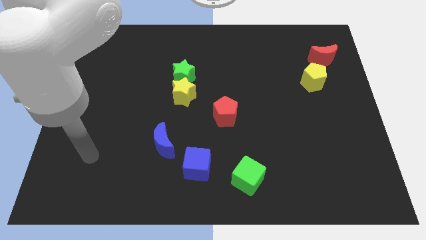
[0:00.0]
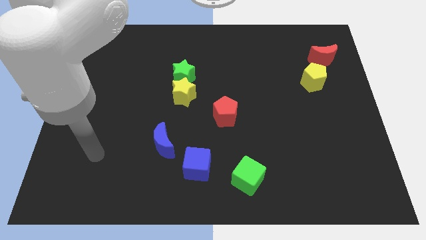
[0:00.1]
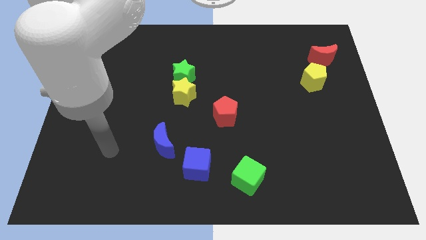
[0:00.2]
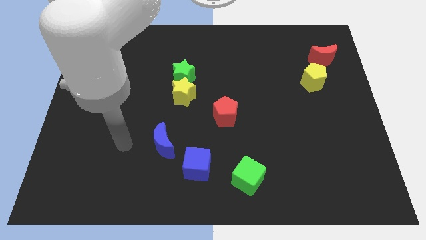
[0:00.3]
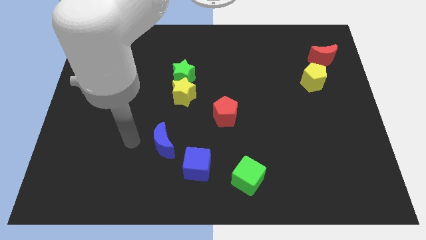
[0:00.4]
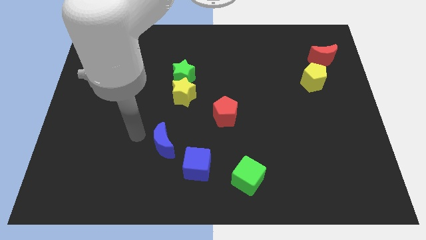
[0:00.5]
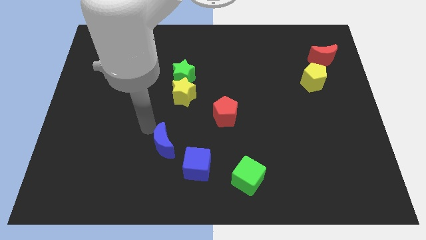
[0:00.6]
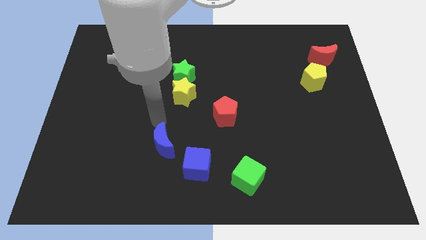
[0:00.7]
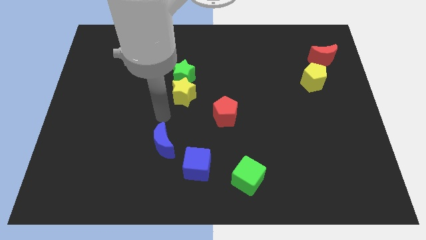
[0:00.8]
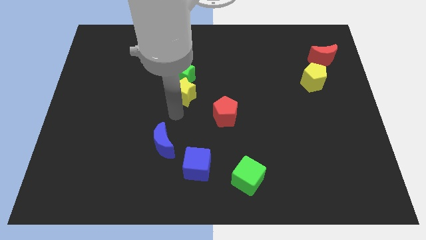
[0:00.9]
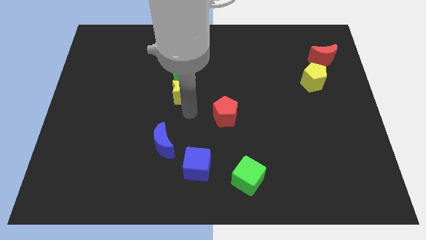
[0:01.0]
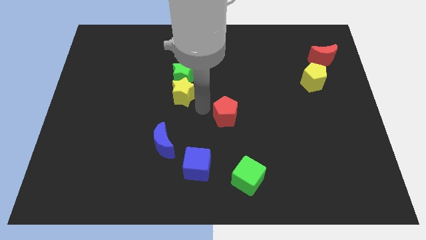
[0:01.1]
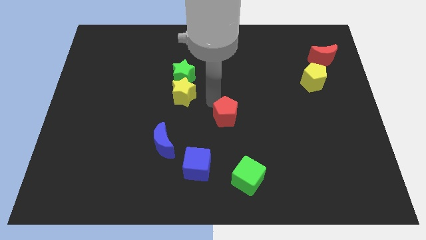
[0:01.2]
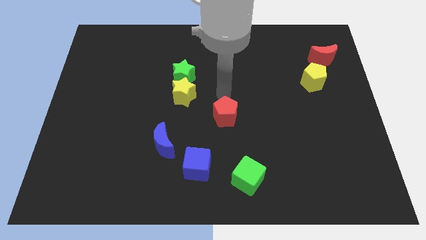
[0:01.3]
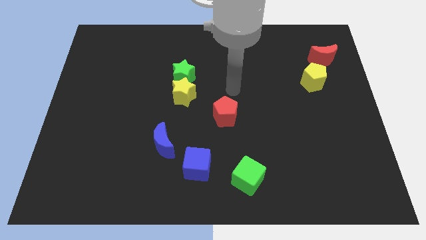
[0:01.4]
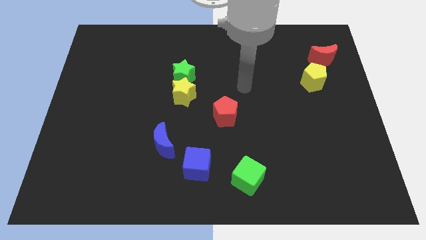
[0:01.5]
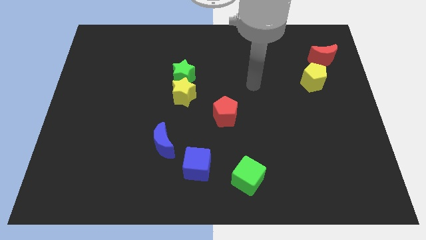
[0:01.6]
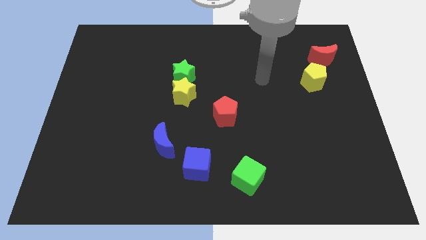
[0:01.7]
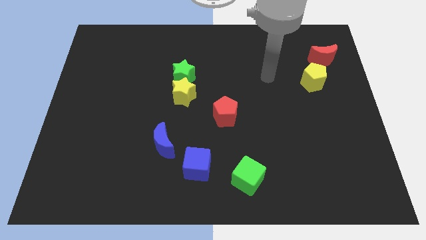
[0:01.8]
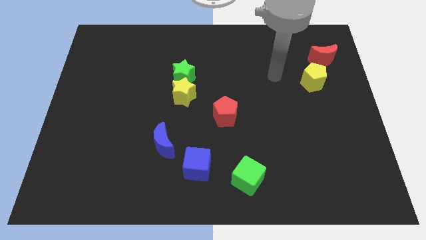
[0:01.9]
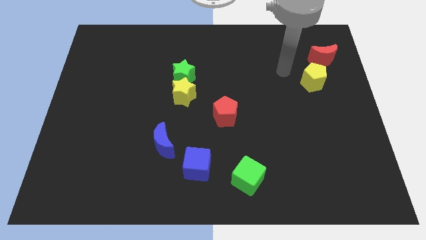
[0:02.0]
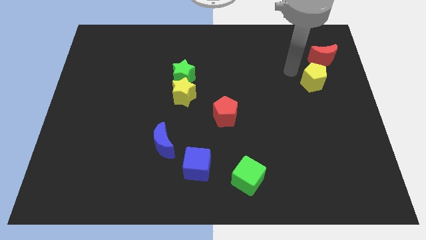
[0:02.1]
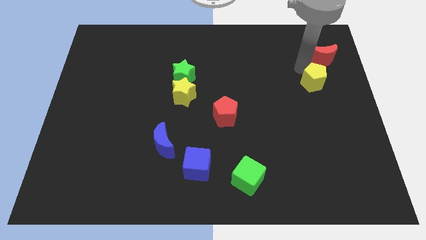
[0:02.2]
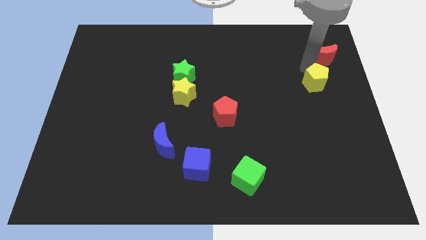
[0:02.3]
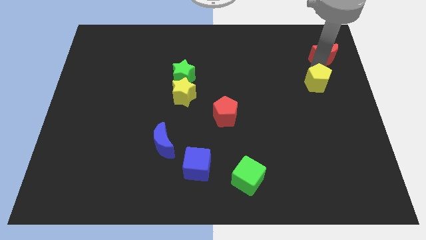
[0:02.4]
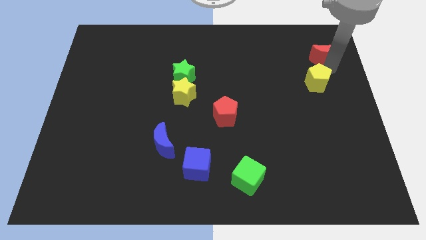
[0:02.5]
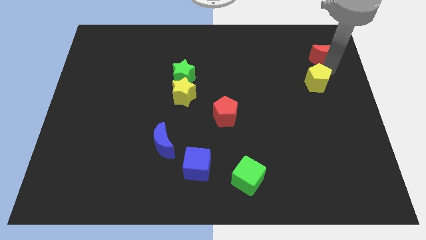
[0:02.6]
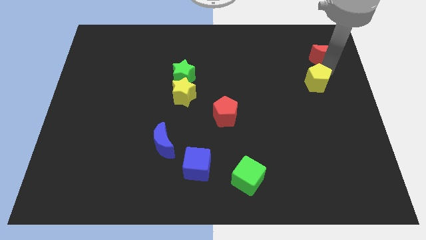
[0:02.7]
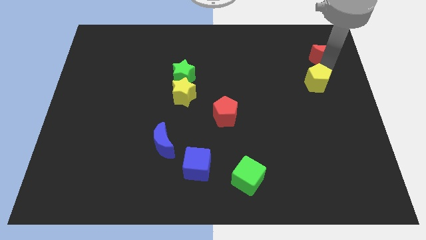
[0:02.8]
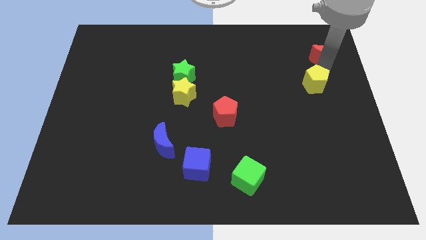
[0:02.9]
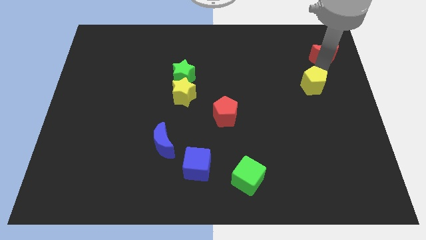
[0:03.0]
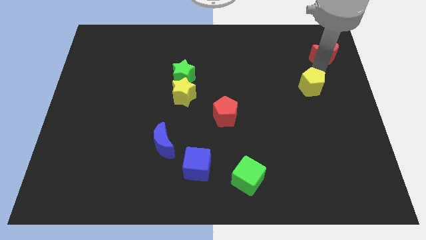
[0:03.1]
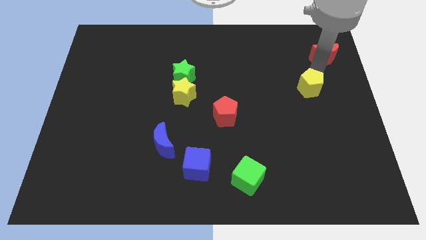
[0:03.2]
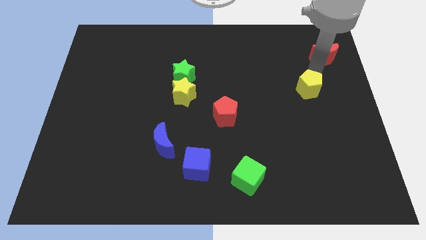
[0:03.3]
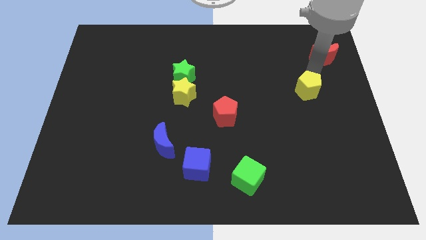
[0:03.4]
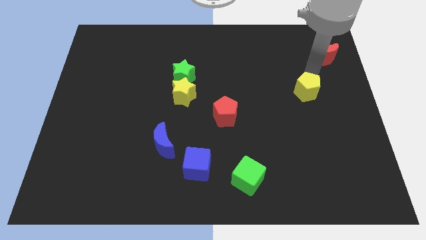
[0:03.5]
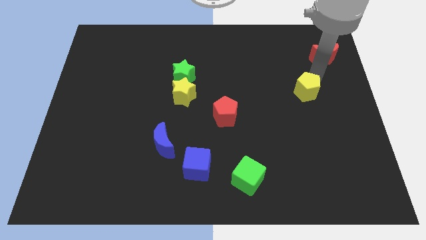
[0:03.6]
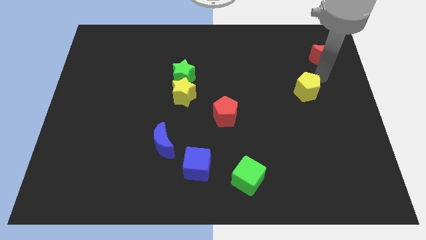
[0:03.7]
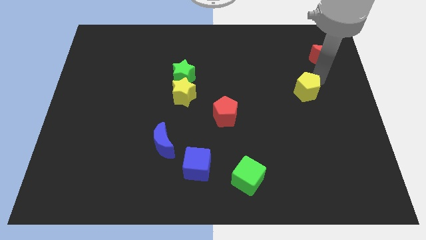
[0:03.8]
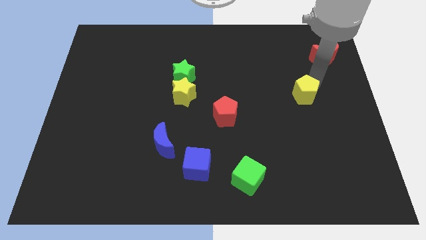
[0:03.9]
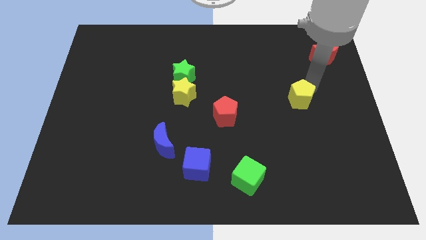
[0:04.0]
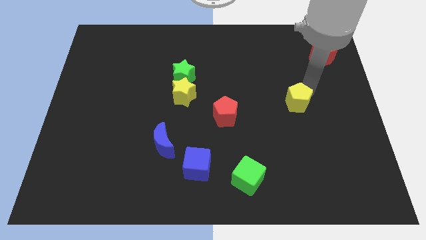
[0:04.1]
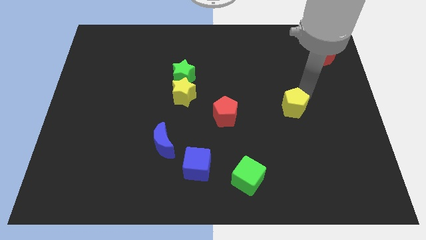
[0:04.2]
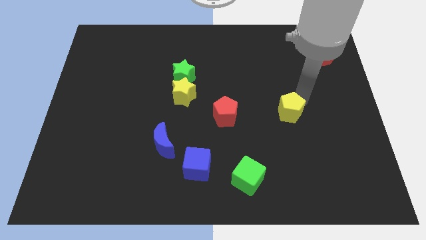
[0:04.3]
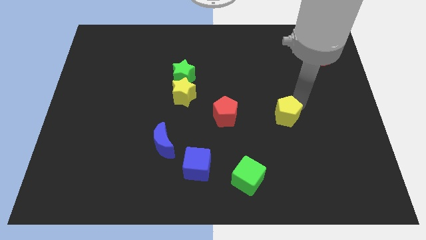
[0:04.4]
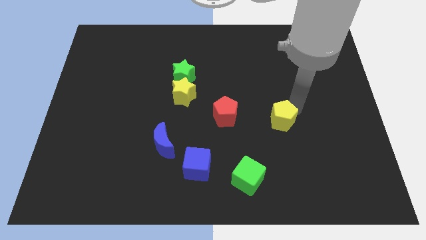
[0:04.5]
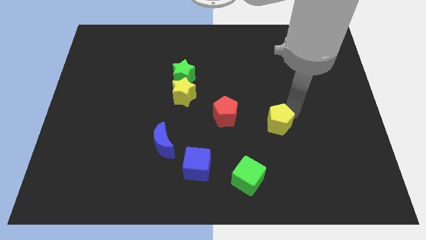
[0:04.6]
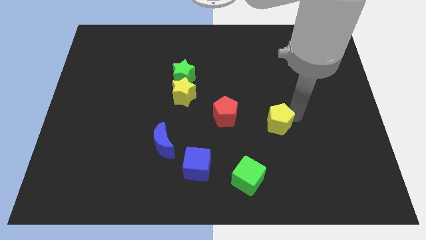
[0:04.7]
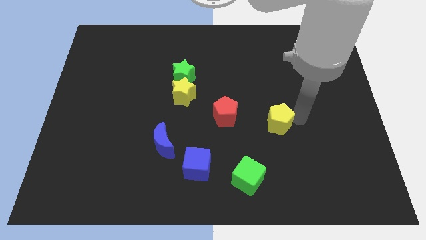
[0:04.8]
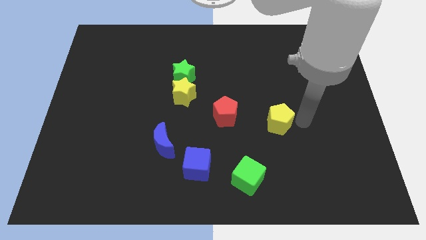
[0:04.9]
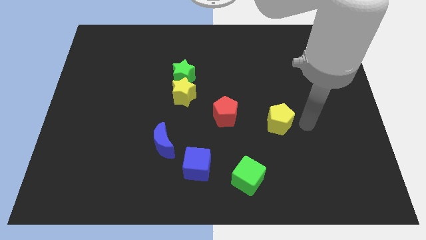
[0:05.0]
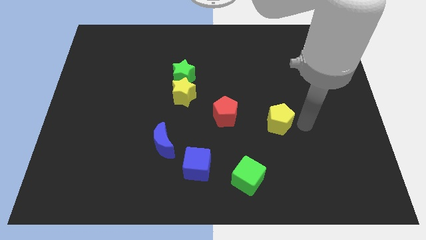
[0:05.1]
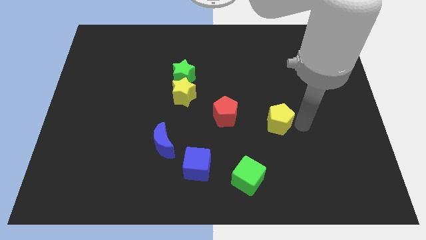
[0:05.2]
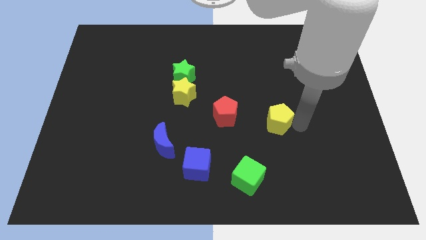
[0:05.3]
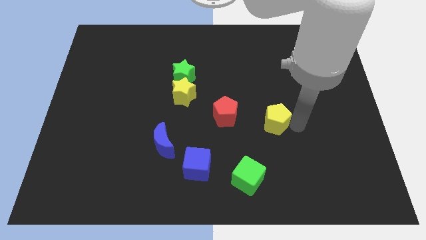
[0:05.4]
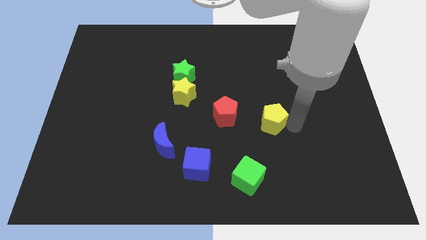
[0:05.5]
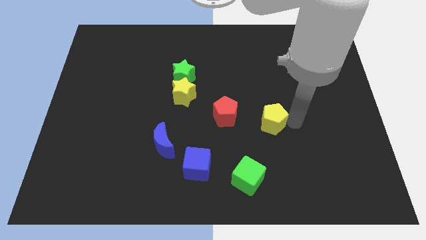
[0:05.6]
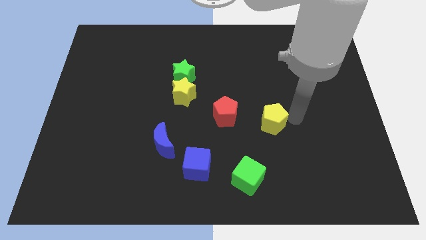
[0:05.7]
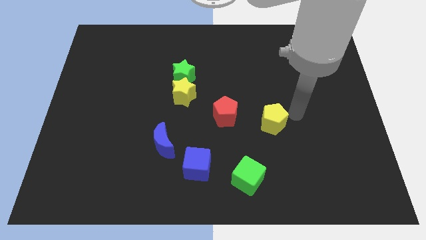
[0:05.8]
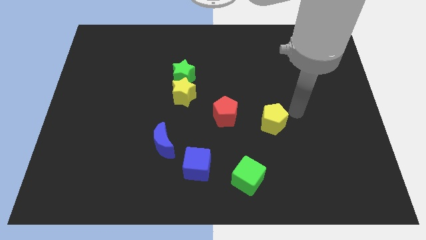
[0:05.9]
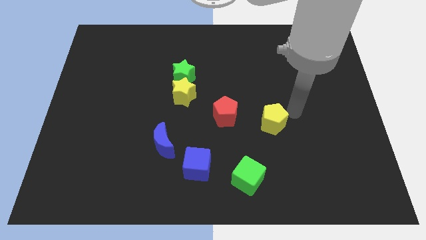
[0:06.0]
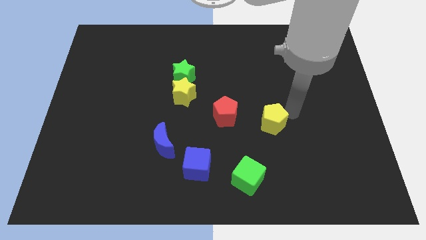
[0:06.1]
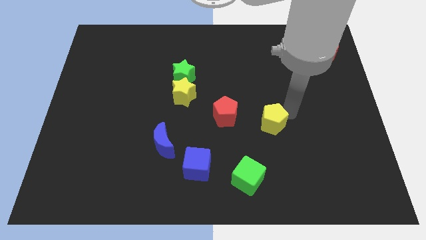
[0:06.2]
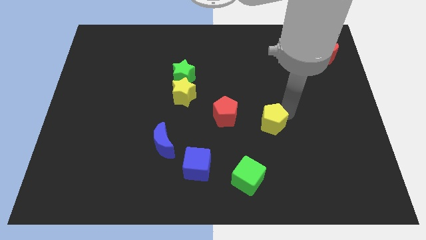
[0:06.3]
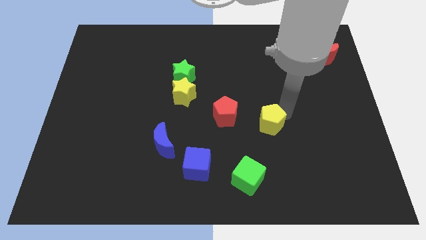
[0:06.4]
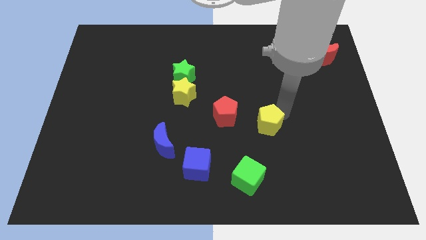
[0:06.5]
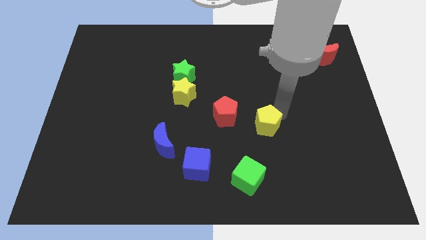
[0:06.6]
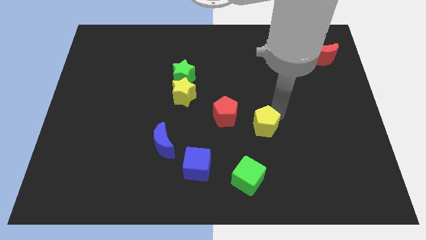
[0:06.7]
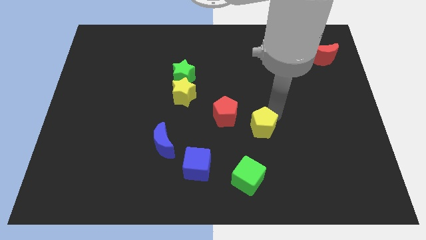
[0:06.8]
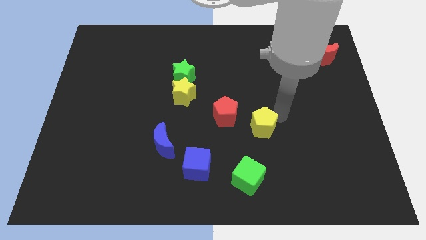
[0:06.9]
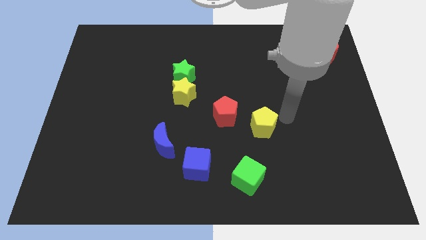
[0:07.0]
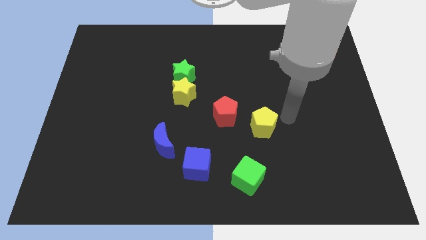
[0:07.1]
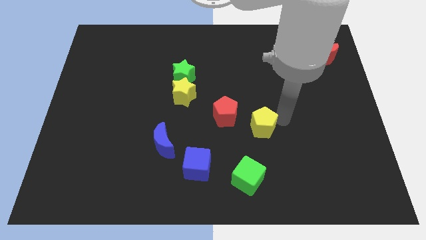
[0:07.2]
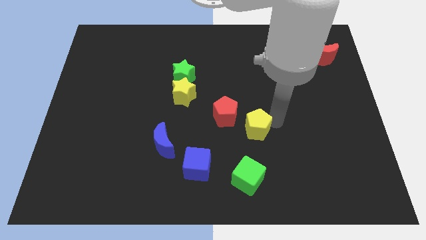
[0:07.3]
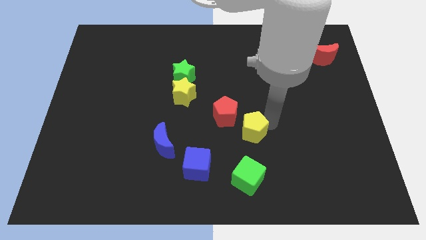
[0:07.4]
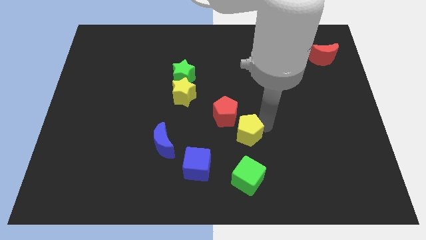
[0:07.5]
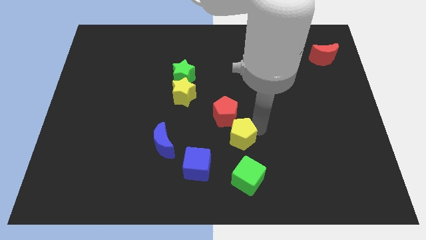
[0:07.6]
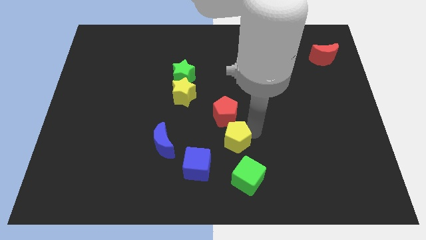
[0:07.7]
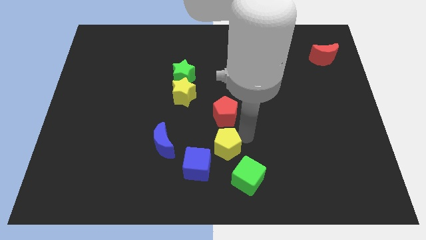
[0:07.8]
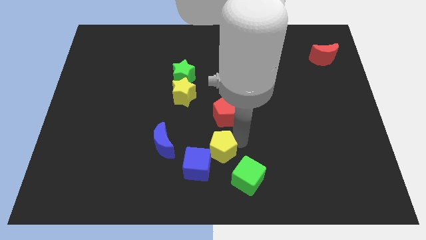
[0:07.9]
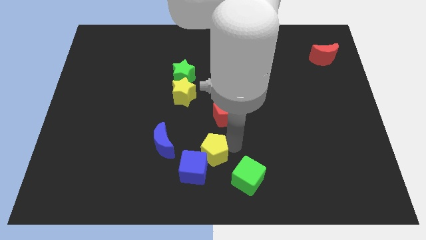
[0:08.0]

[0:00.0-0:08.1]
move the yellow pentagon towards the blue cube
